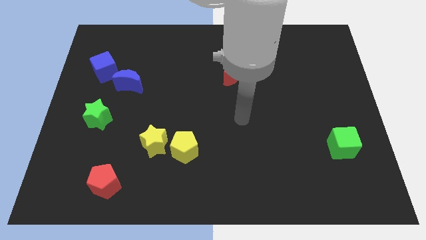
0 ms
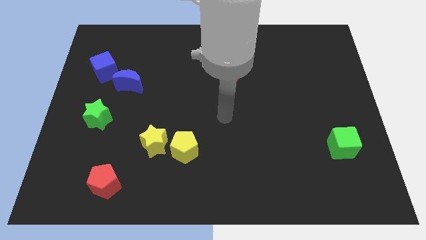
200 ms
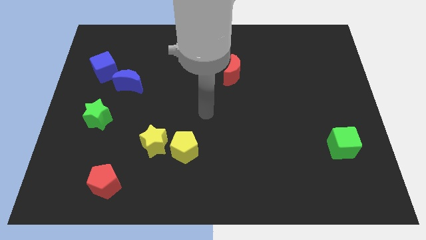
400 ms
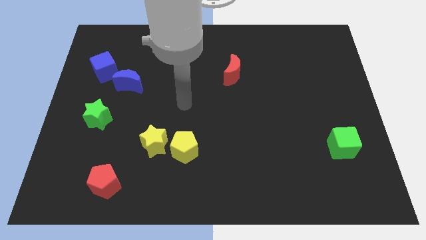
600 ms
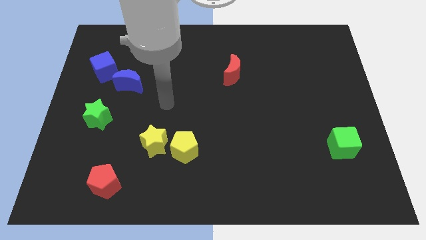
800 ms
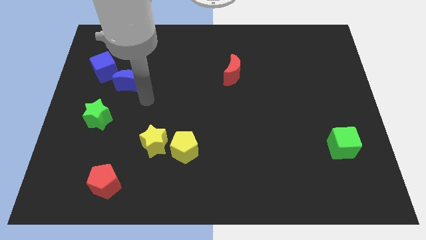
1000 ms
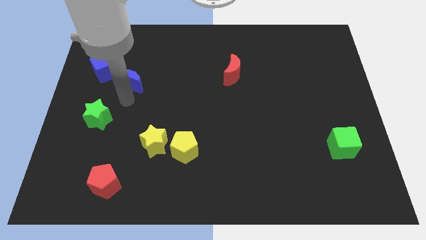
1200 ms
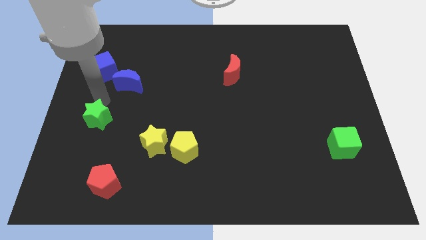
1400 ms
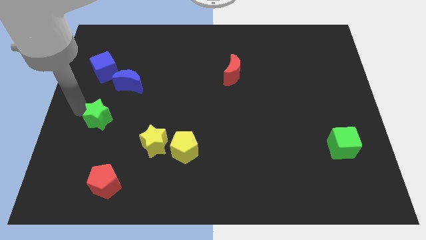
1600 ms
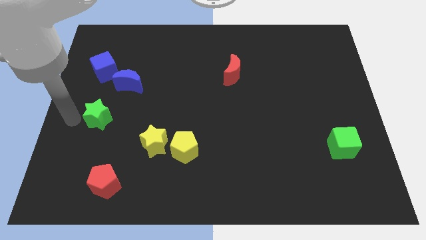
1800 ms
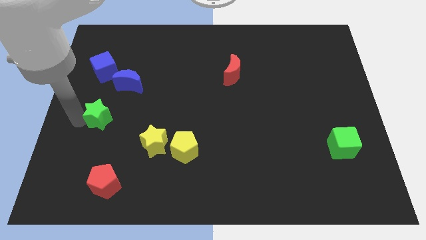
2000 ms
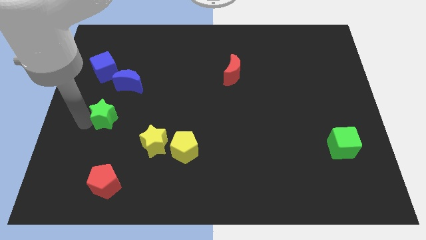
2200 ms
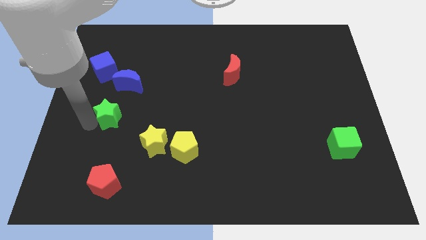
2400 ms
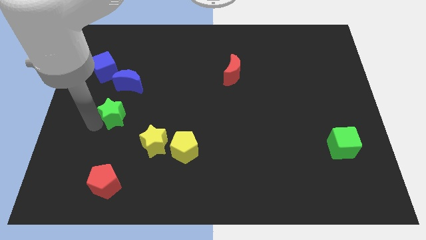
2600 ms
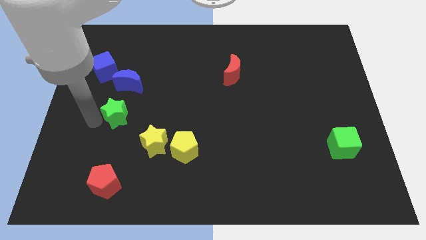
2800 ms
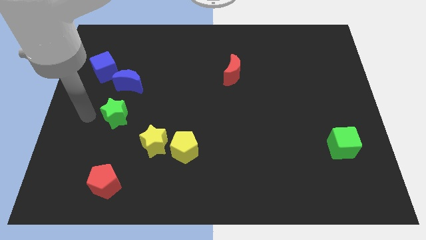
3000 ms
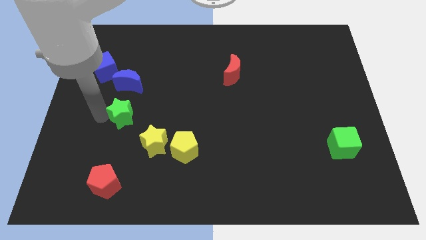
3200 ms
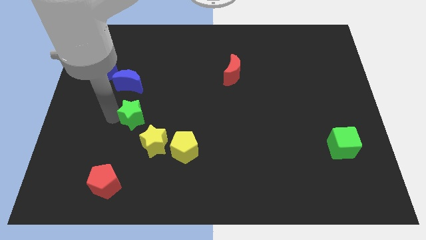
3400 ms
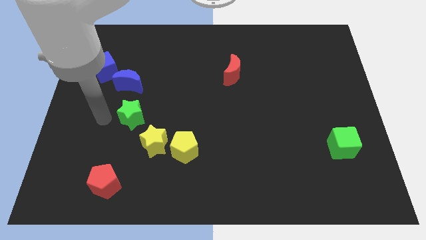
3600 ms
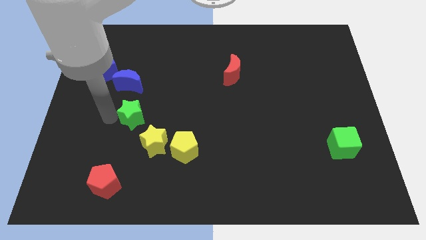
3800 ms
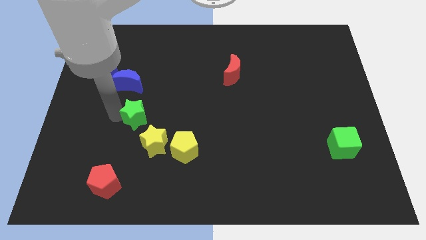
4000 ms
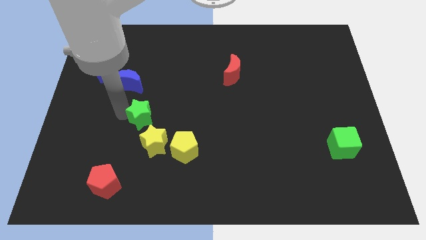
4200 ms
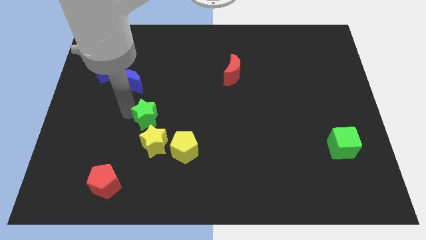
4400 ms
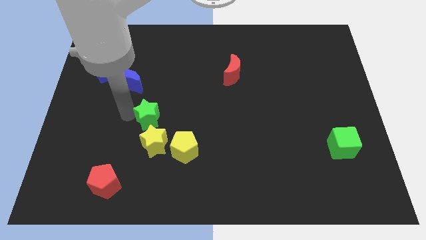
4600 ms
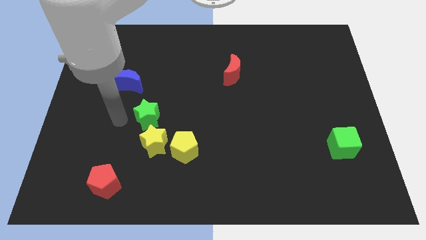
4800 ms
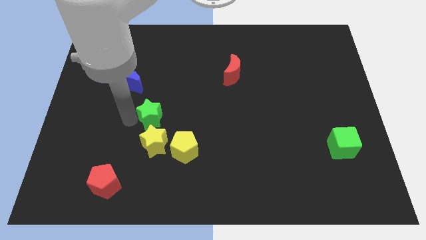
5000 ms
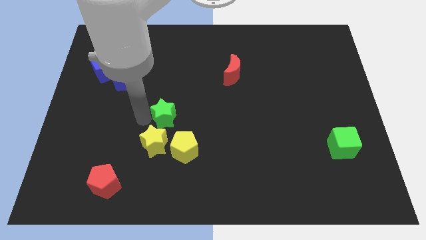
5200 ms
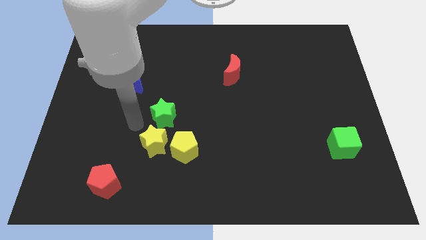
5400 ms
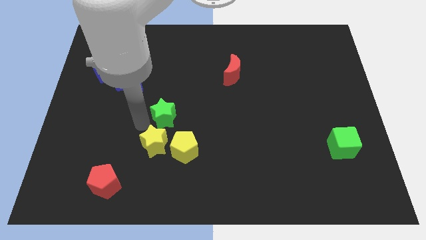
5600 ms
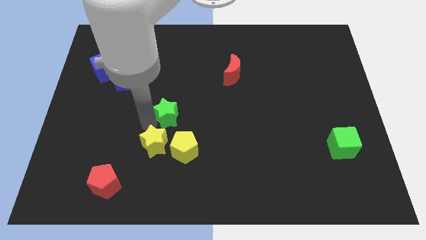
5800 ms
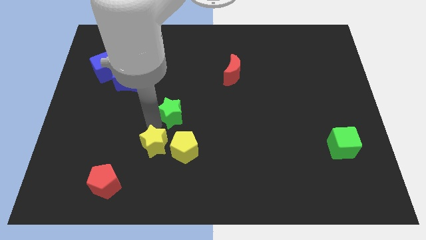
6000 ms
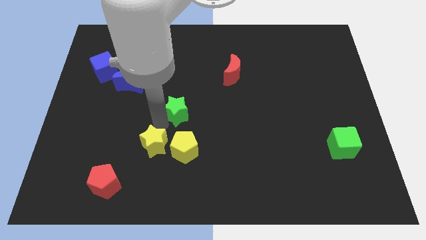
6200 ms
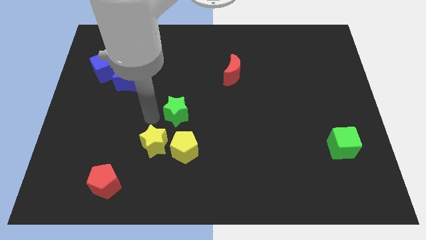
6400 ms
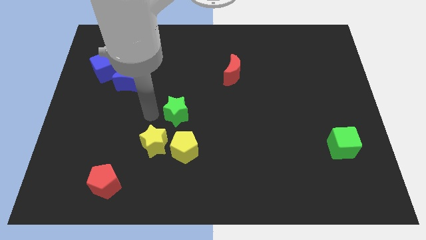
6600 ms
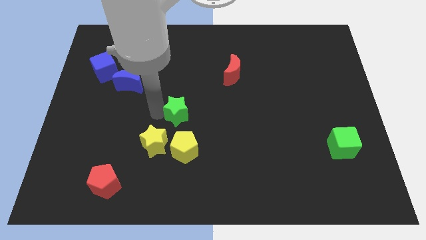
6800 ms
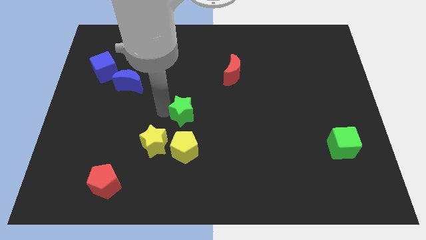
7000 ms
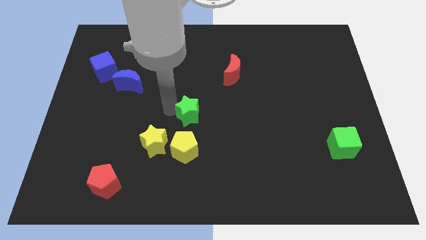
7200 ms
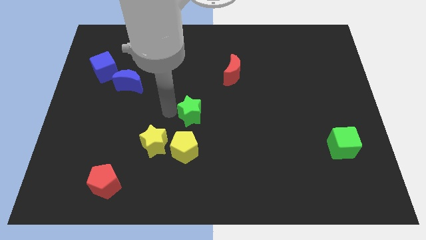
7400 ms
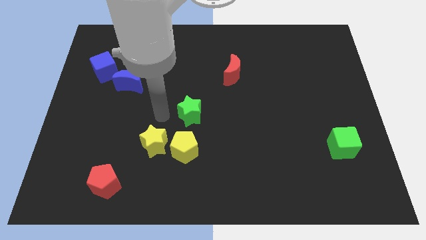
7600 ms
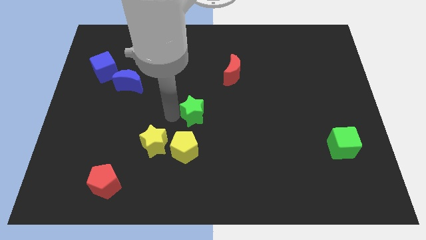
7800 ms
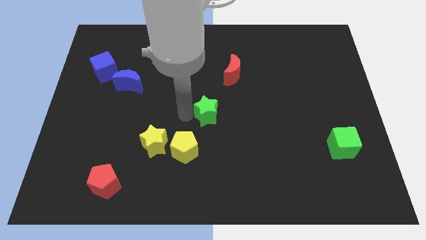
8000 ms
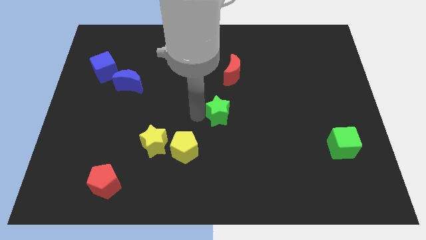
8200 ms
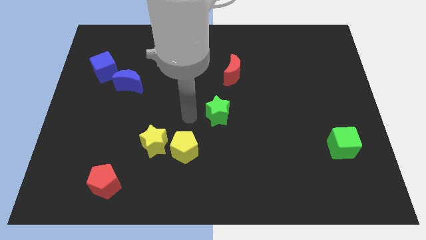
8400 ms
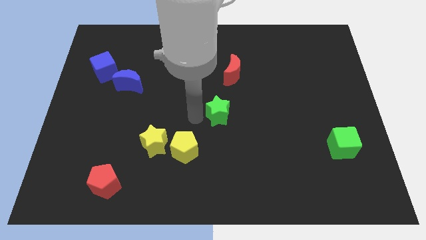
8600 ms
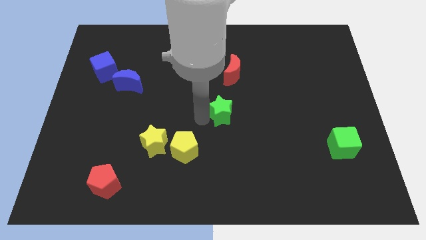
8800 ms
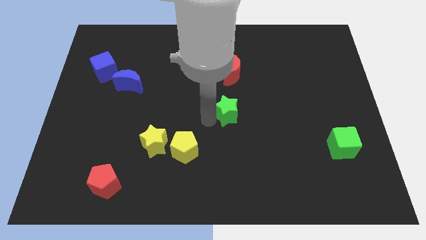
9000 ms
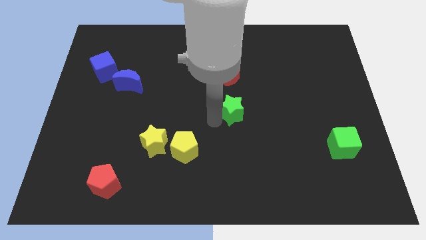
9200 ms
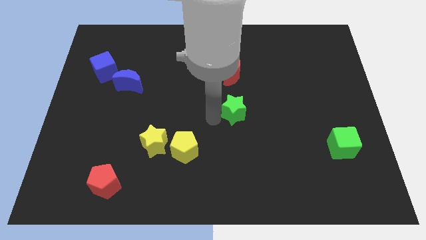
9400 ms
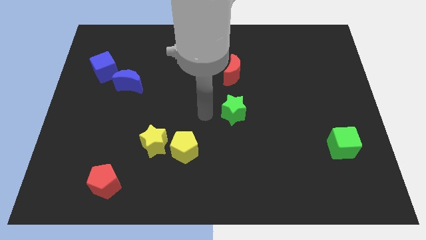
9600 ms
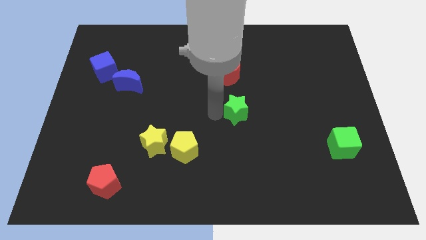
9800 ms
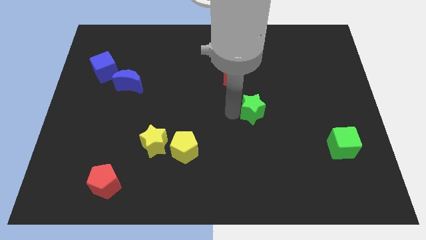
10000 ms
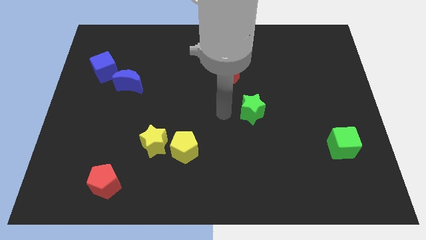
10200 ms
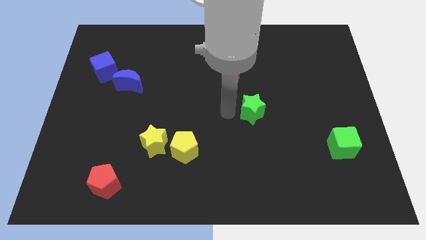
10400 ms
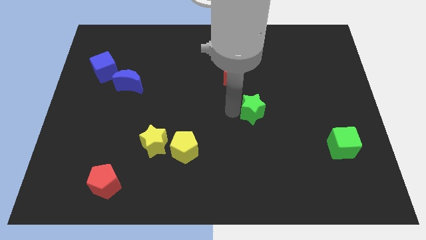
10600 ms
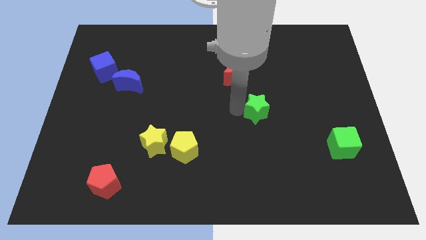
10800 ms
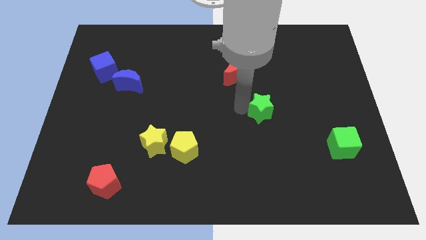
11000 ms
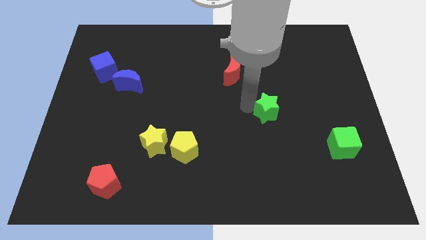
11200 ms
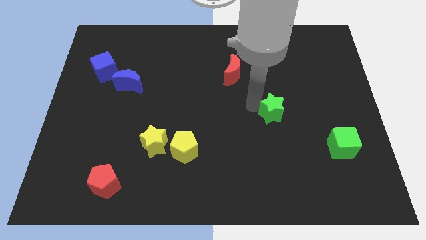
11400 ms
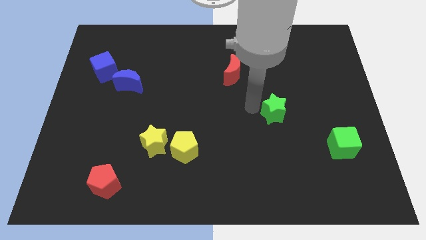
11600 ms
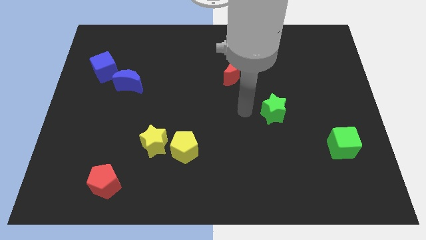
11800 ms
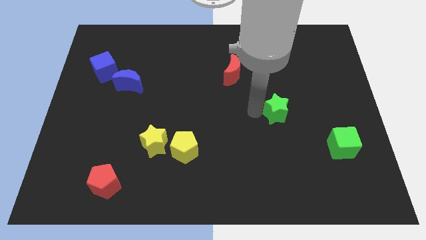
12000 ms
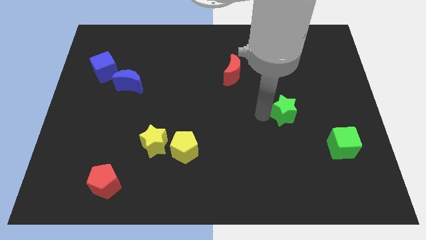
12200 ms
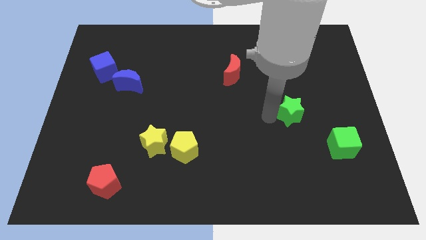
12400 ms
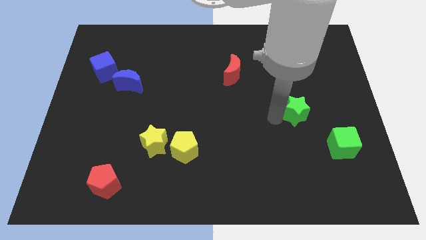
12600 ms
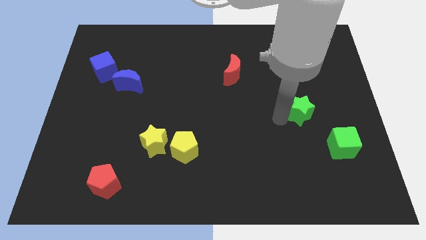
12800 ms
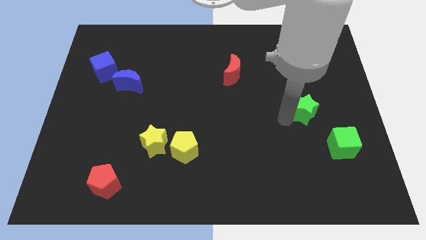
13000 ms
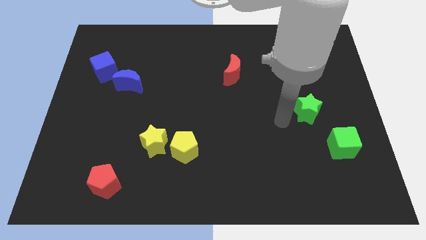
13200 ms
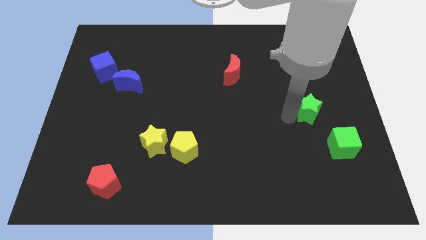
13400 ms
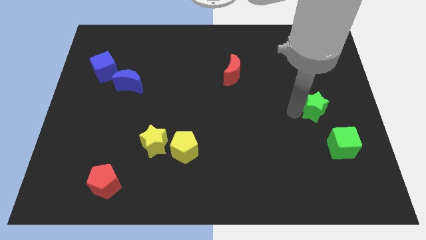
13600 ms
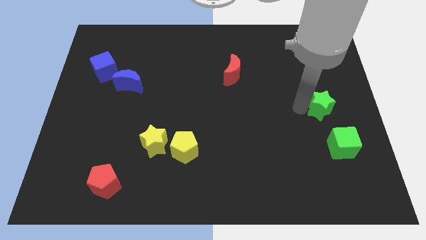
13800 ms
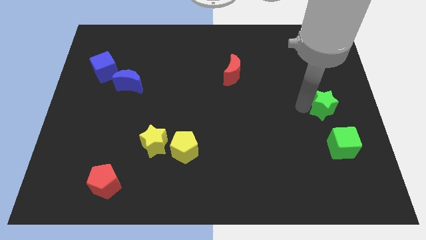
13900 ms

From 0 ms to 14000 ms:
slide the green star to the center right

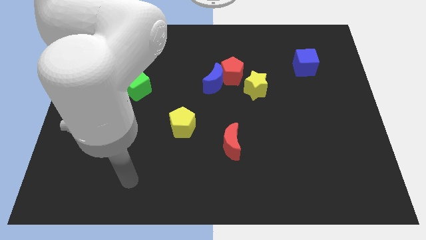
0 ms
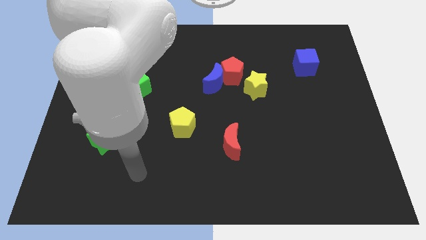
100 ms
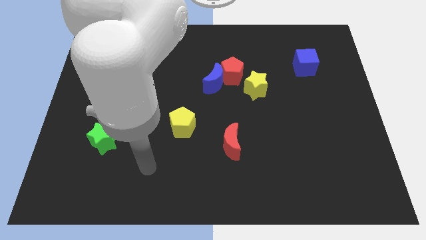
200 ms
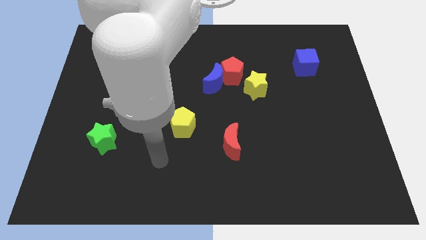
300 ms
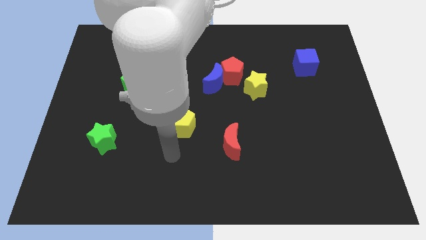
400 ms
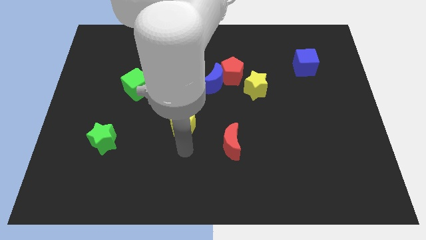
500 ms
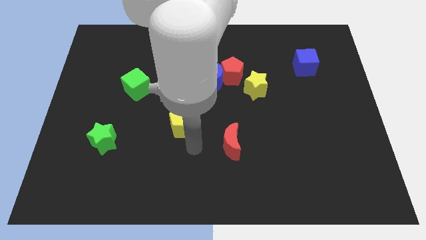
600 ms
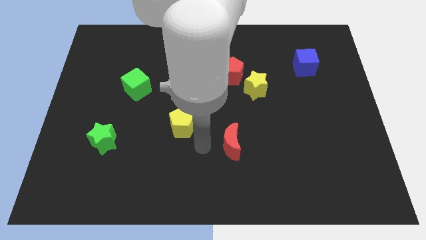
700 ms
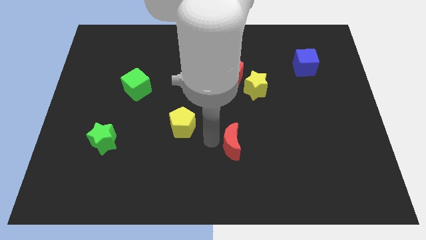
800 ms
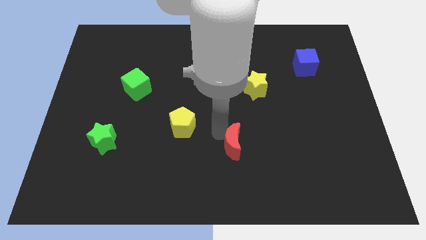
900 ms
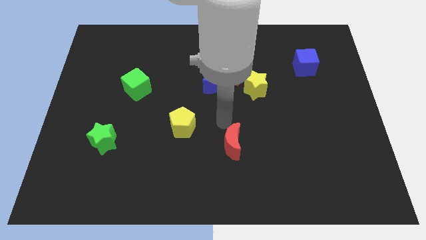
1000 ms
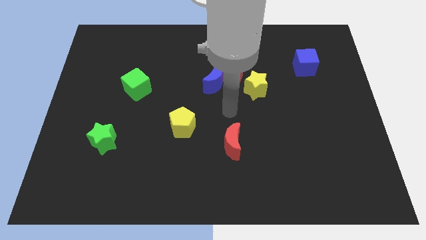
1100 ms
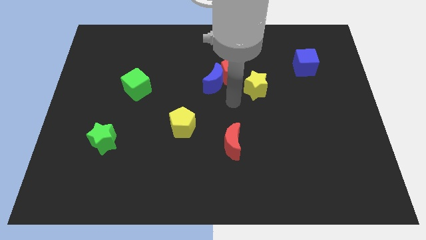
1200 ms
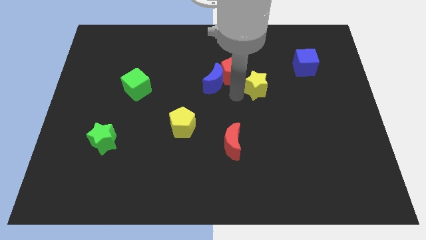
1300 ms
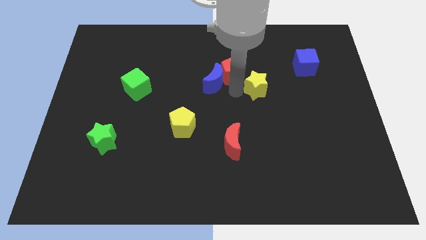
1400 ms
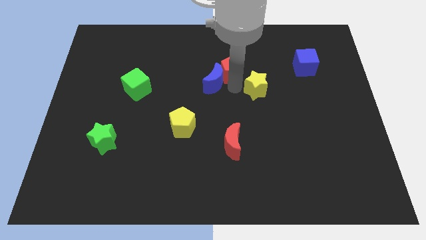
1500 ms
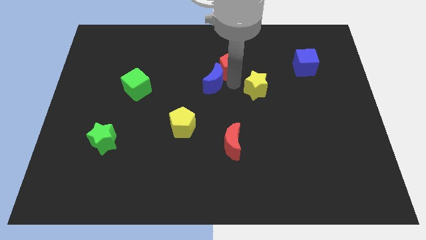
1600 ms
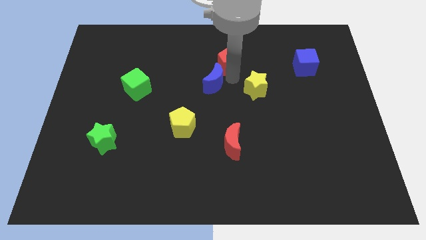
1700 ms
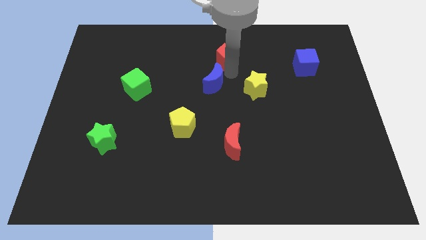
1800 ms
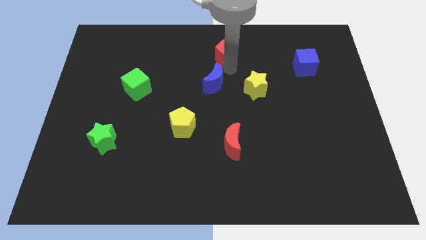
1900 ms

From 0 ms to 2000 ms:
move the red pentagon to the towards your base
